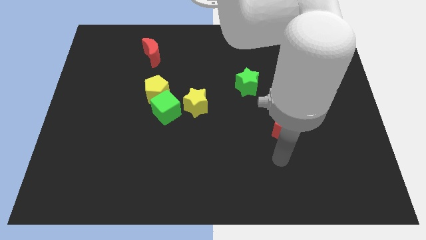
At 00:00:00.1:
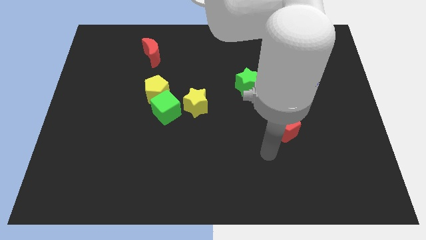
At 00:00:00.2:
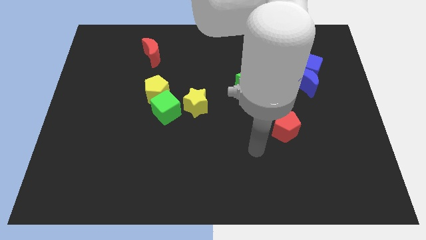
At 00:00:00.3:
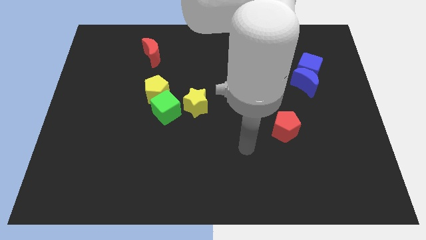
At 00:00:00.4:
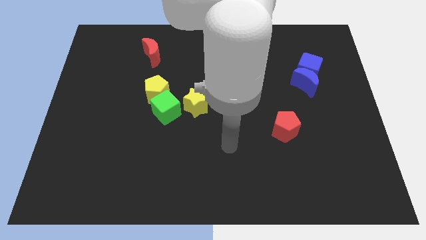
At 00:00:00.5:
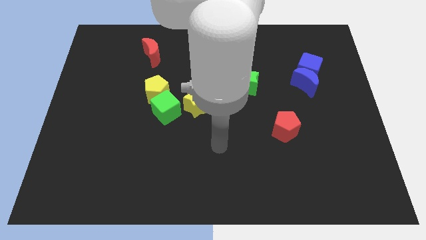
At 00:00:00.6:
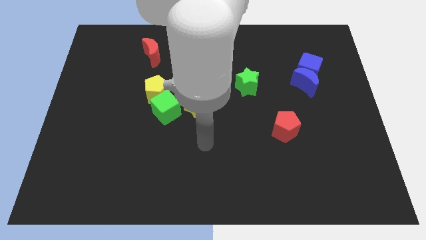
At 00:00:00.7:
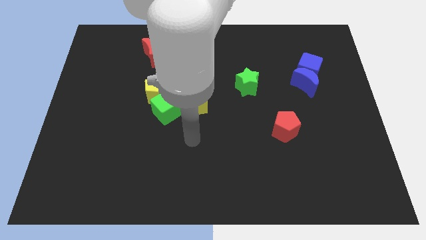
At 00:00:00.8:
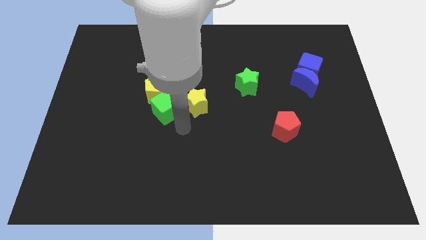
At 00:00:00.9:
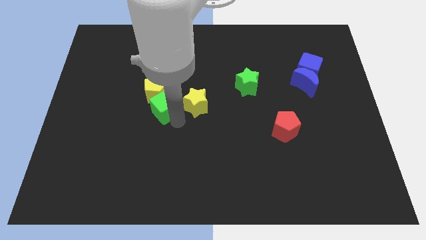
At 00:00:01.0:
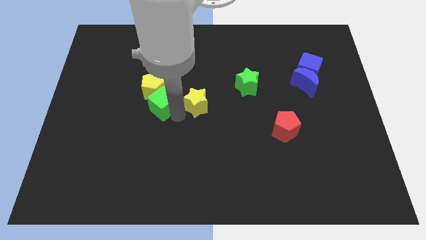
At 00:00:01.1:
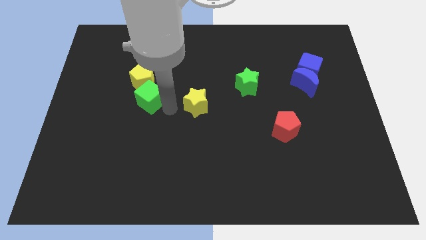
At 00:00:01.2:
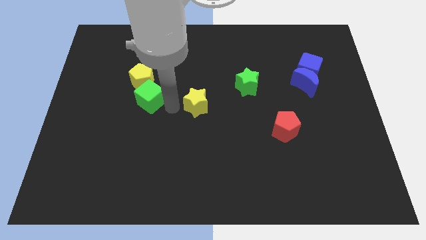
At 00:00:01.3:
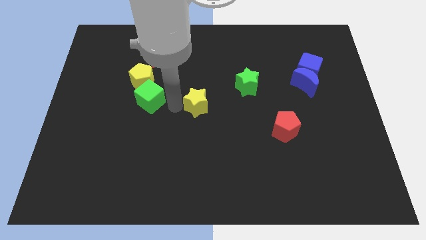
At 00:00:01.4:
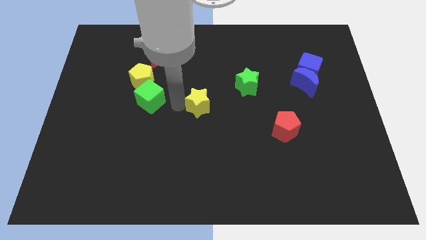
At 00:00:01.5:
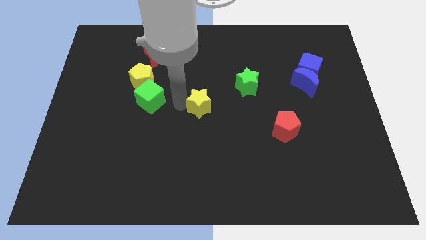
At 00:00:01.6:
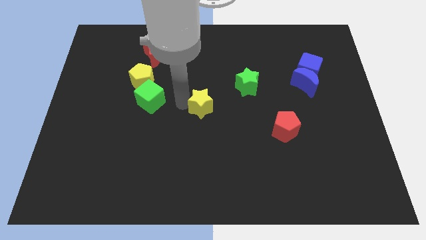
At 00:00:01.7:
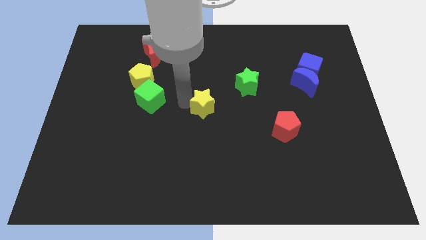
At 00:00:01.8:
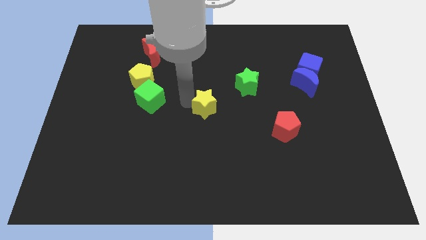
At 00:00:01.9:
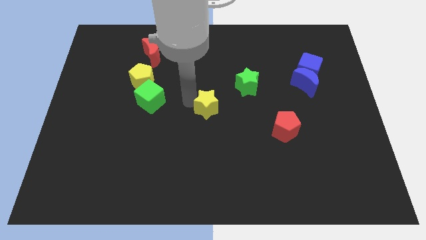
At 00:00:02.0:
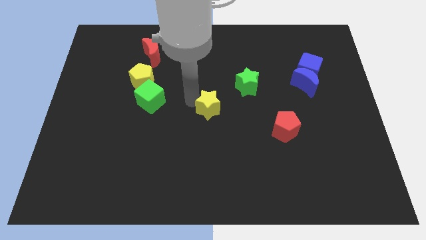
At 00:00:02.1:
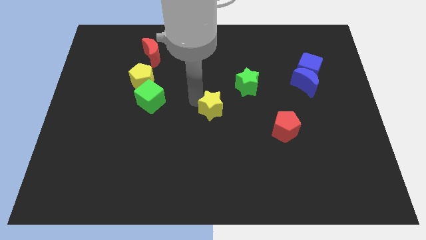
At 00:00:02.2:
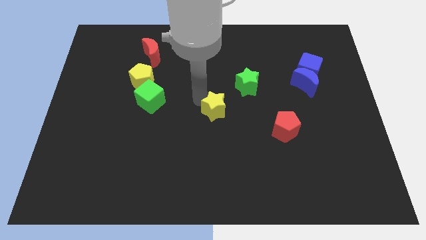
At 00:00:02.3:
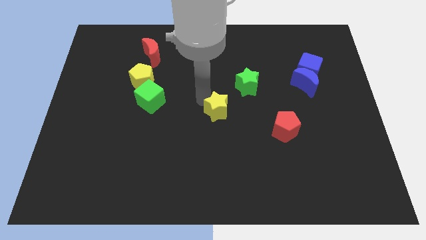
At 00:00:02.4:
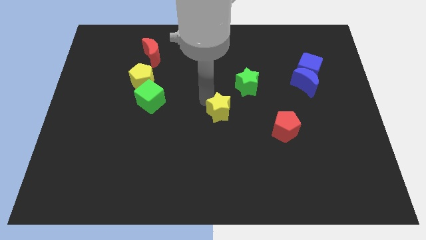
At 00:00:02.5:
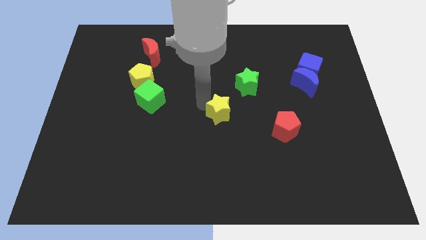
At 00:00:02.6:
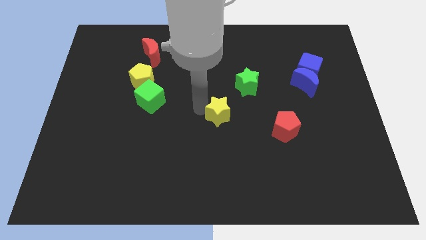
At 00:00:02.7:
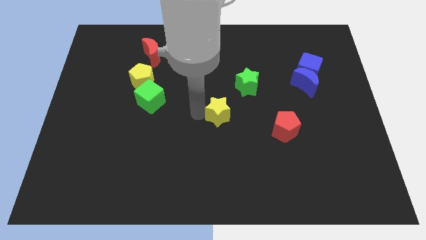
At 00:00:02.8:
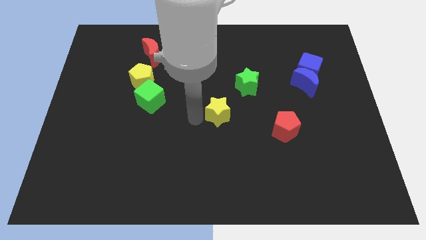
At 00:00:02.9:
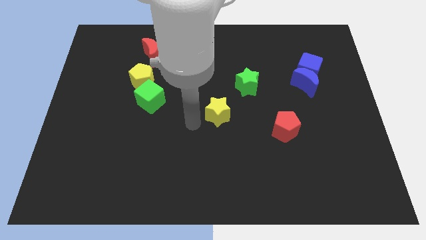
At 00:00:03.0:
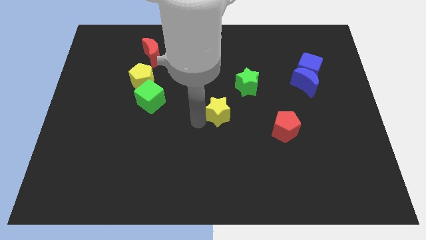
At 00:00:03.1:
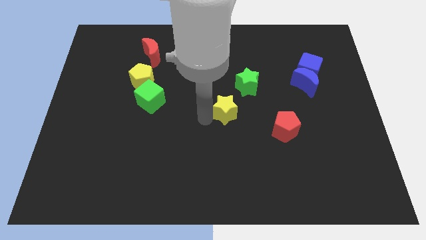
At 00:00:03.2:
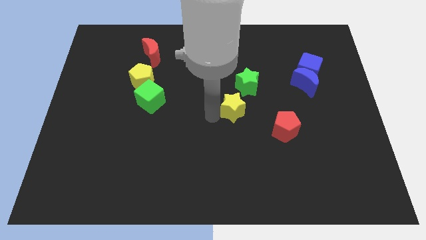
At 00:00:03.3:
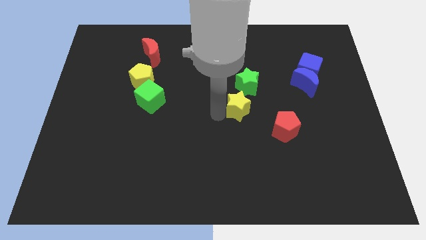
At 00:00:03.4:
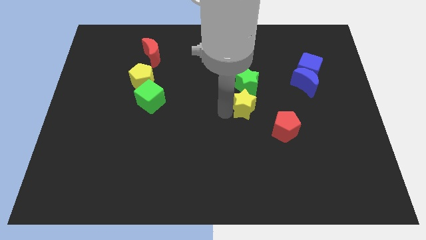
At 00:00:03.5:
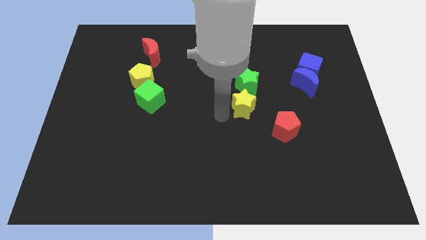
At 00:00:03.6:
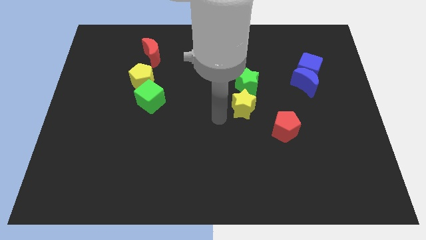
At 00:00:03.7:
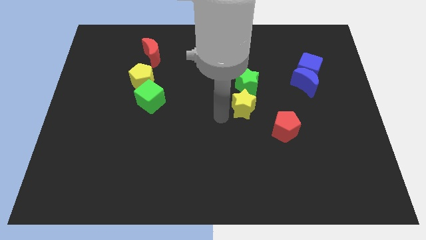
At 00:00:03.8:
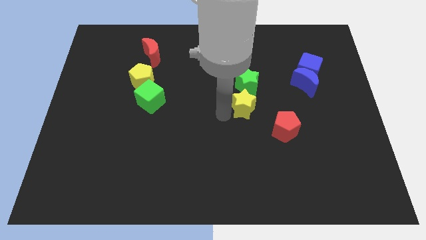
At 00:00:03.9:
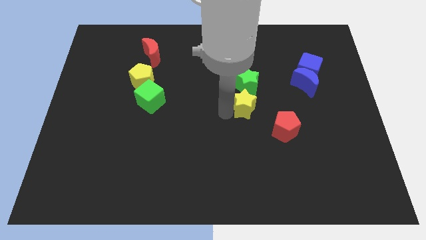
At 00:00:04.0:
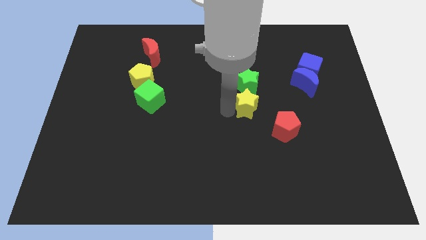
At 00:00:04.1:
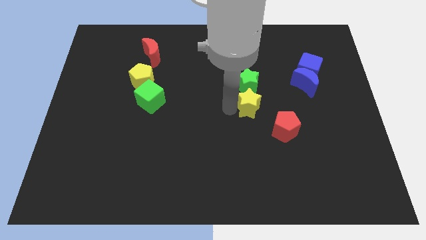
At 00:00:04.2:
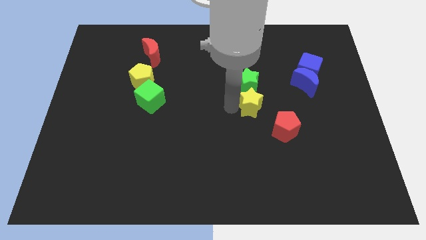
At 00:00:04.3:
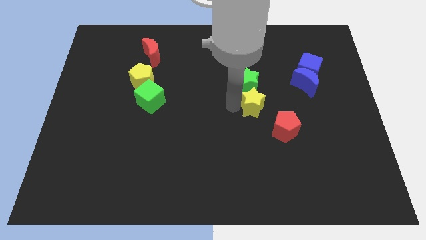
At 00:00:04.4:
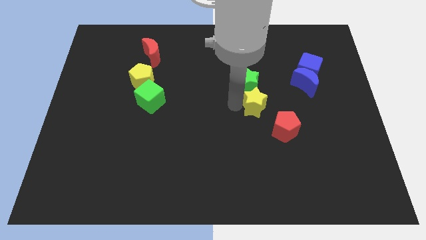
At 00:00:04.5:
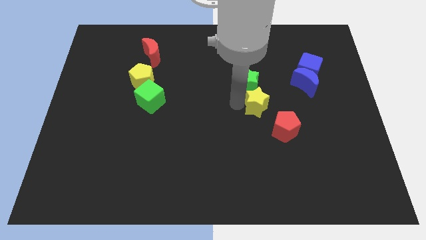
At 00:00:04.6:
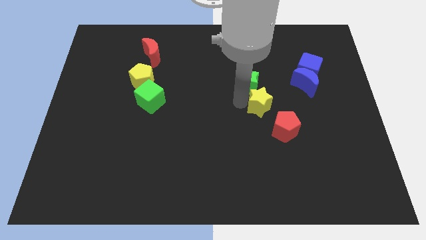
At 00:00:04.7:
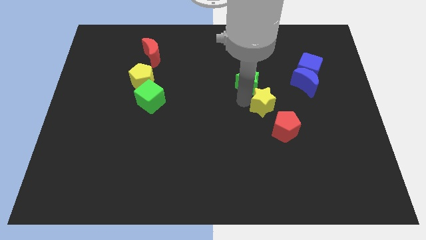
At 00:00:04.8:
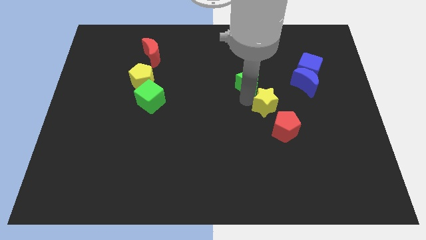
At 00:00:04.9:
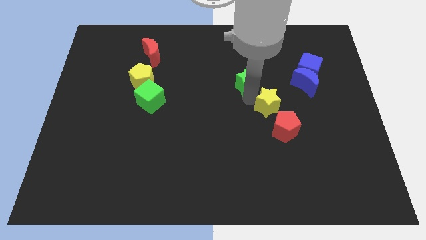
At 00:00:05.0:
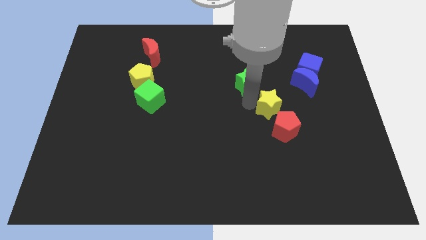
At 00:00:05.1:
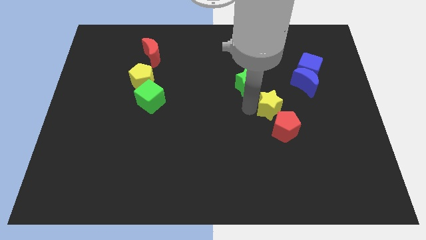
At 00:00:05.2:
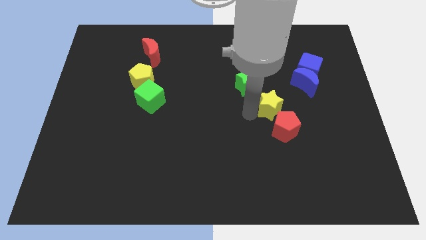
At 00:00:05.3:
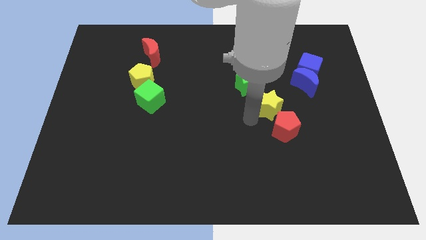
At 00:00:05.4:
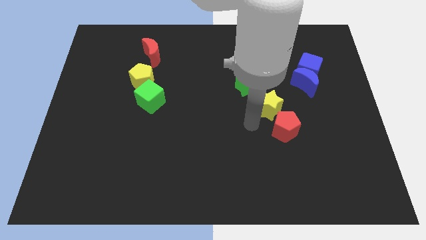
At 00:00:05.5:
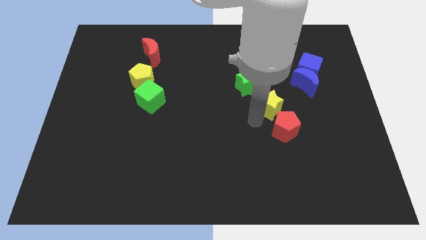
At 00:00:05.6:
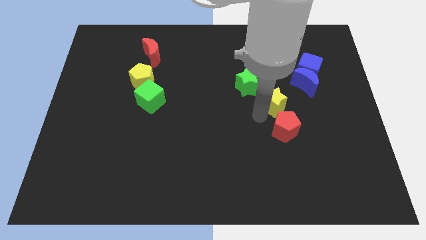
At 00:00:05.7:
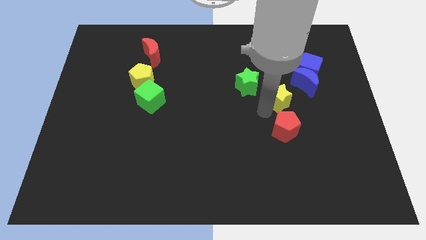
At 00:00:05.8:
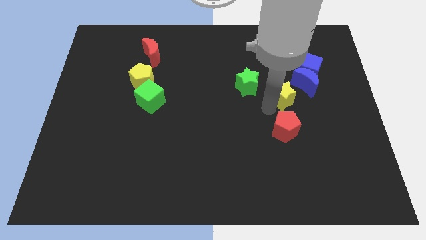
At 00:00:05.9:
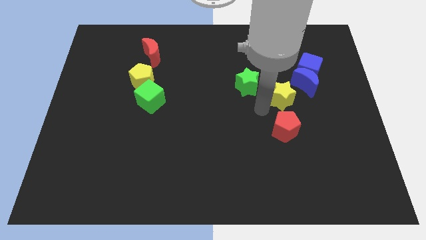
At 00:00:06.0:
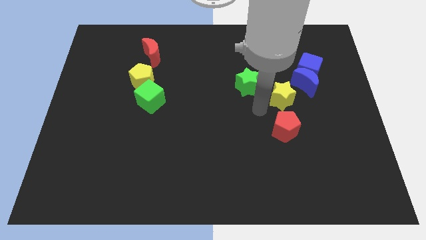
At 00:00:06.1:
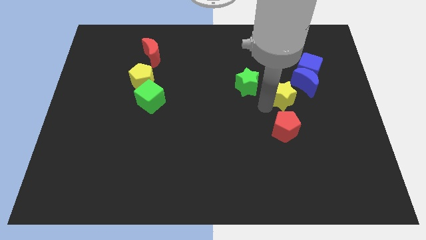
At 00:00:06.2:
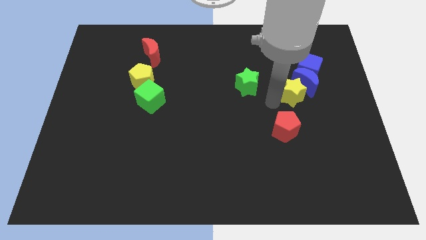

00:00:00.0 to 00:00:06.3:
put the yellow star close to the blue moon

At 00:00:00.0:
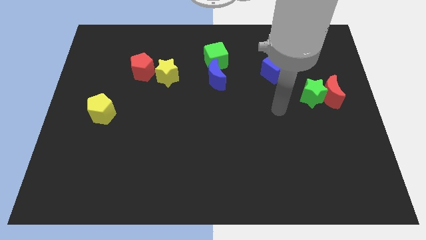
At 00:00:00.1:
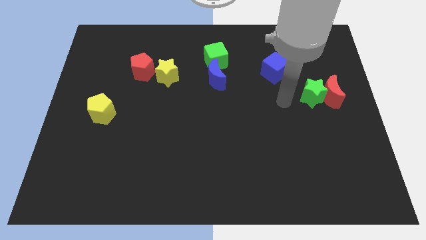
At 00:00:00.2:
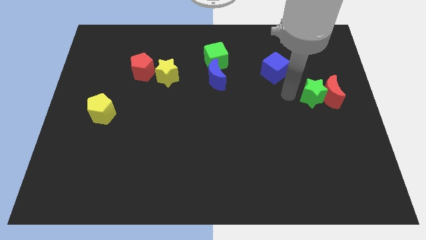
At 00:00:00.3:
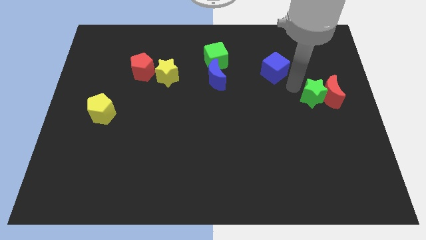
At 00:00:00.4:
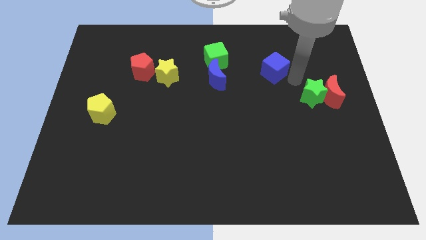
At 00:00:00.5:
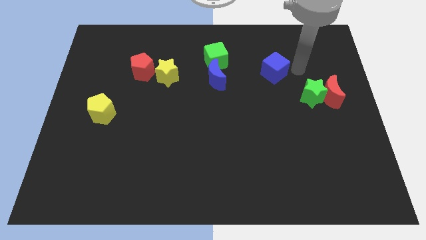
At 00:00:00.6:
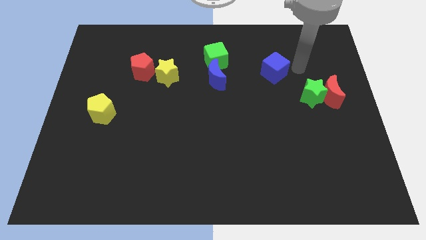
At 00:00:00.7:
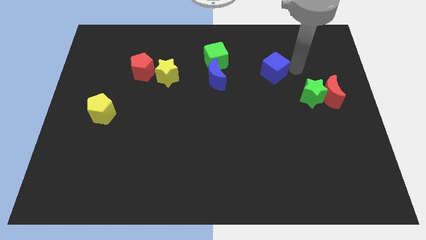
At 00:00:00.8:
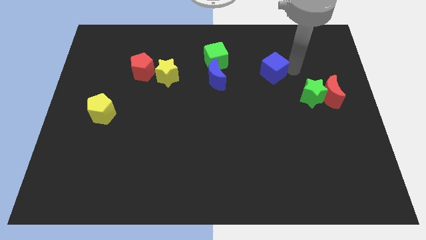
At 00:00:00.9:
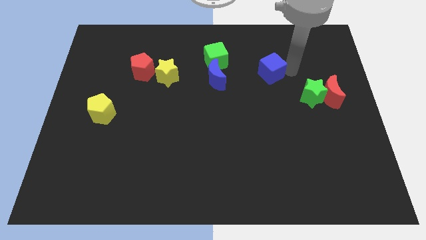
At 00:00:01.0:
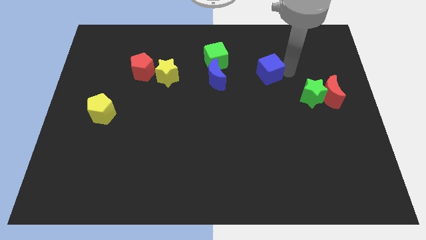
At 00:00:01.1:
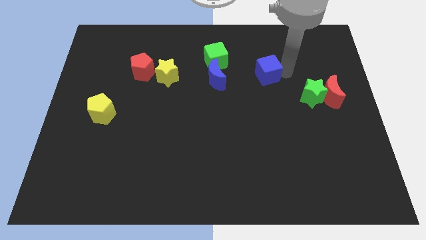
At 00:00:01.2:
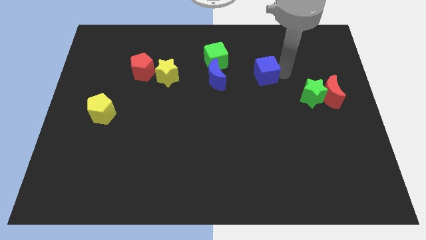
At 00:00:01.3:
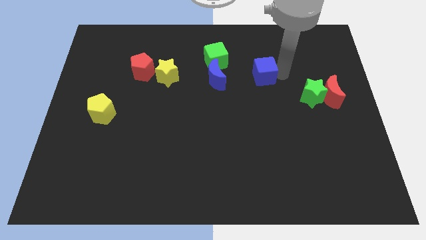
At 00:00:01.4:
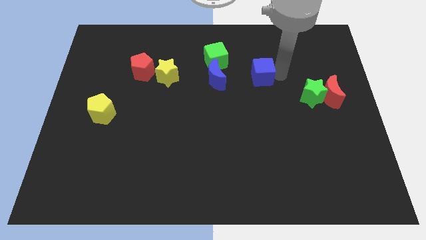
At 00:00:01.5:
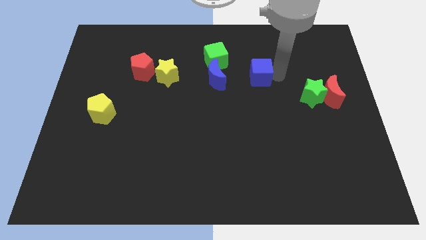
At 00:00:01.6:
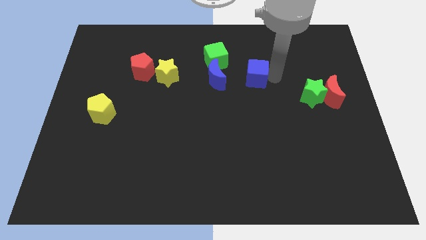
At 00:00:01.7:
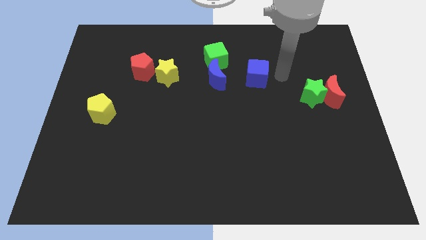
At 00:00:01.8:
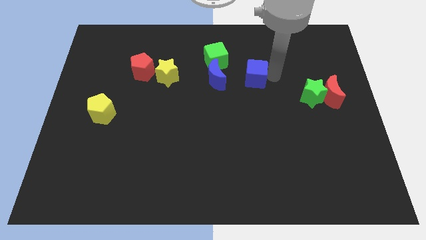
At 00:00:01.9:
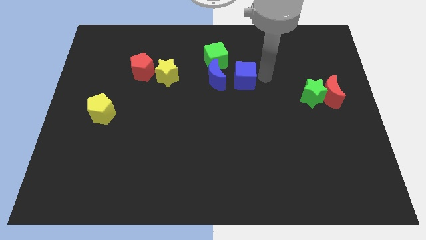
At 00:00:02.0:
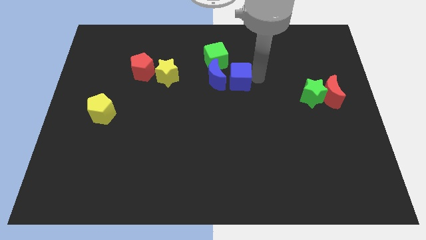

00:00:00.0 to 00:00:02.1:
slide the blue cube to the blue moon
